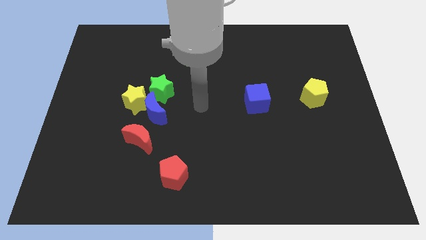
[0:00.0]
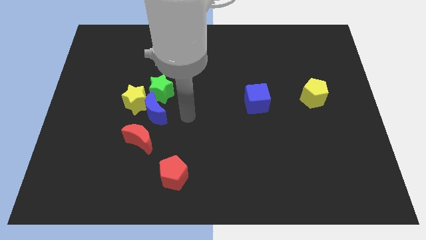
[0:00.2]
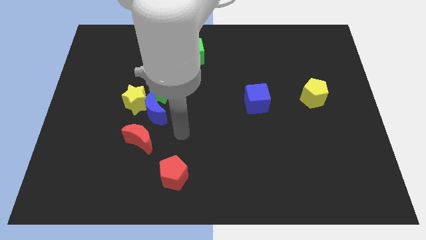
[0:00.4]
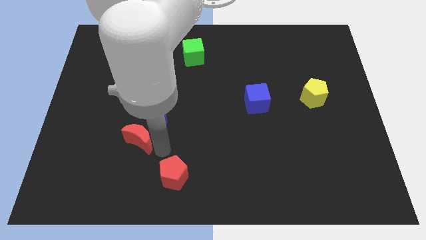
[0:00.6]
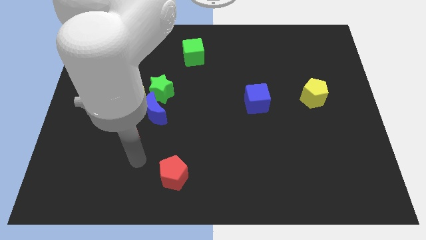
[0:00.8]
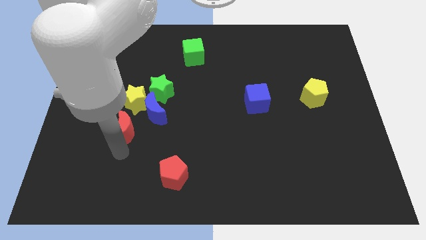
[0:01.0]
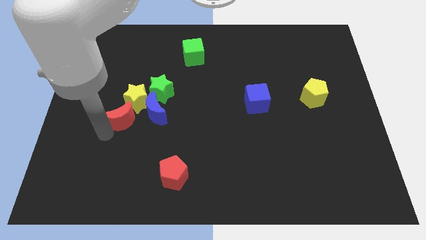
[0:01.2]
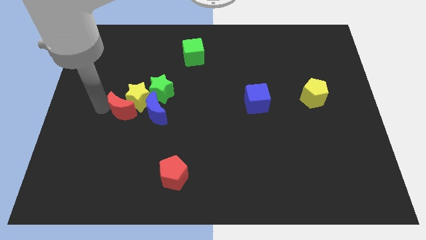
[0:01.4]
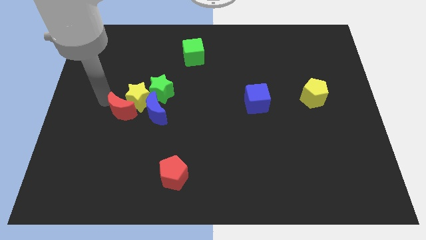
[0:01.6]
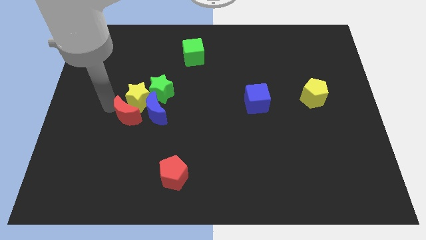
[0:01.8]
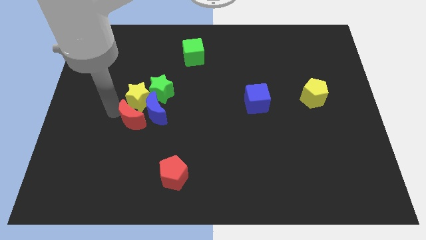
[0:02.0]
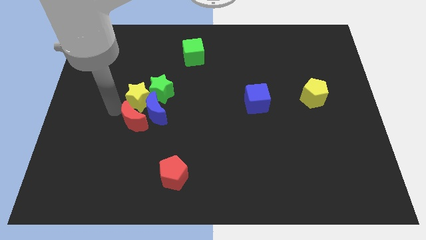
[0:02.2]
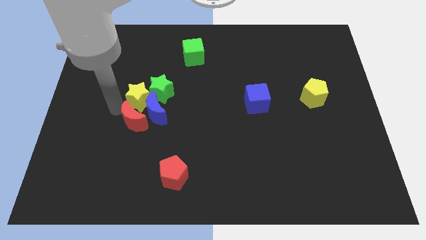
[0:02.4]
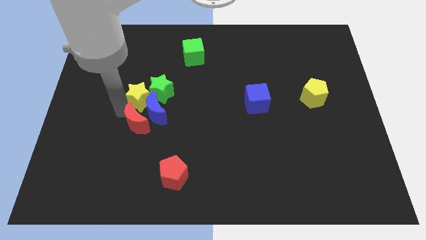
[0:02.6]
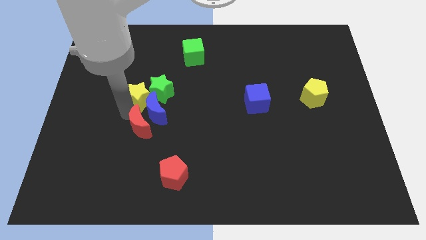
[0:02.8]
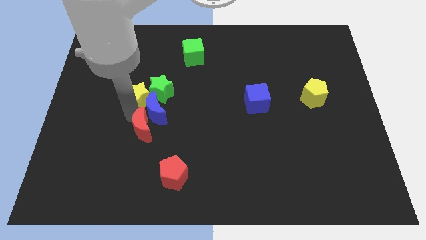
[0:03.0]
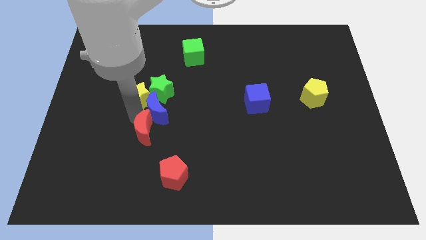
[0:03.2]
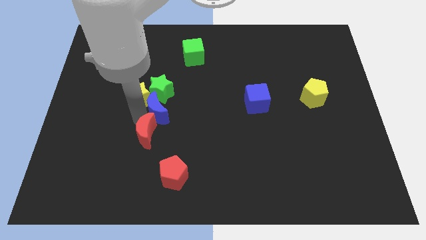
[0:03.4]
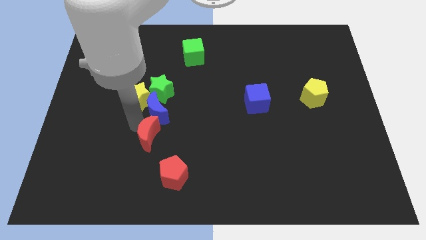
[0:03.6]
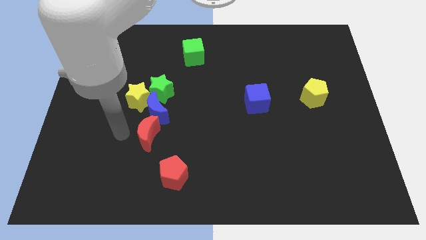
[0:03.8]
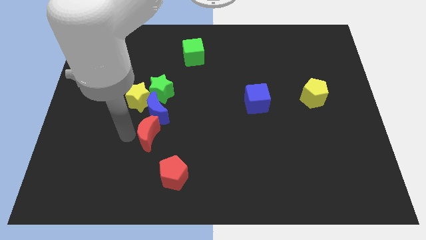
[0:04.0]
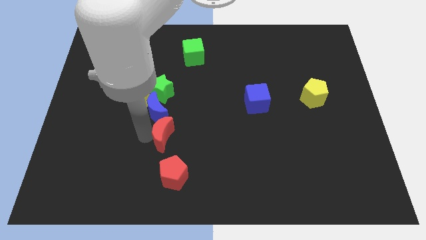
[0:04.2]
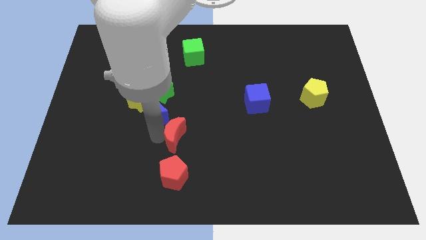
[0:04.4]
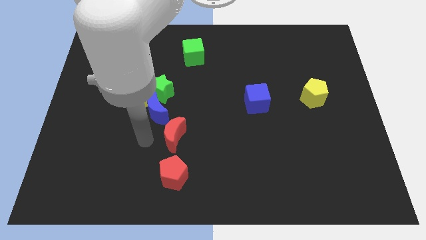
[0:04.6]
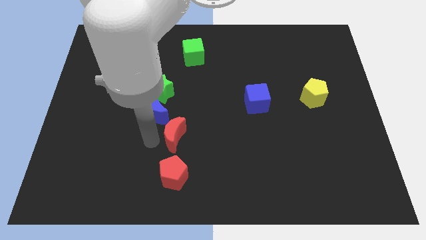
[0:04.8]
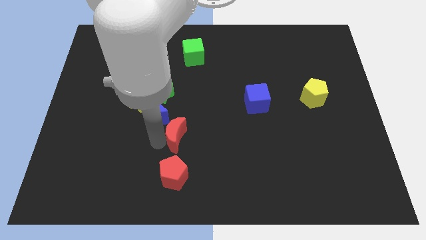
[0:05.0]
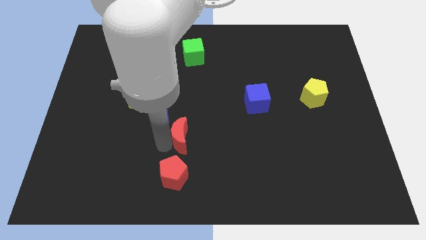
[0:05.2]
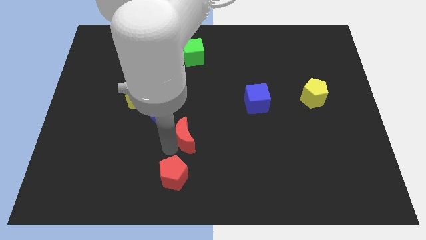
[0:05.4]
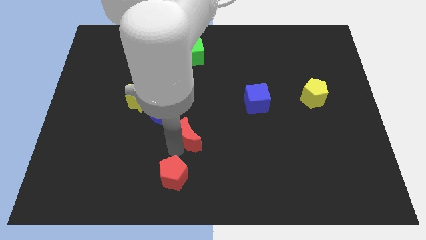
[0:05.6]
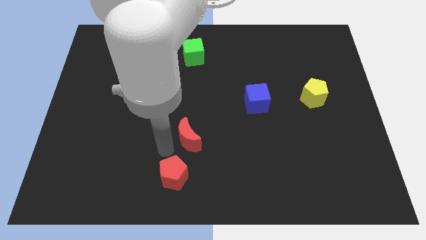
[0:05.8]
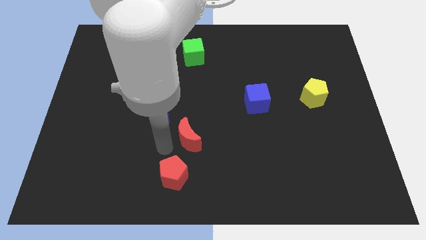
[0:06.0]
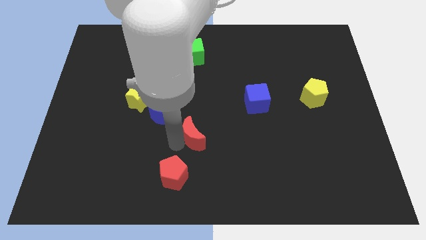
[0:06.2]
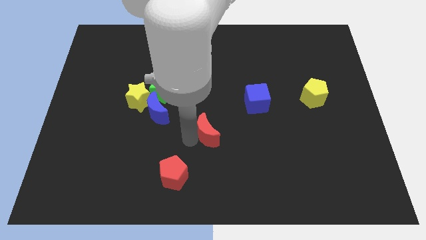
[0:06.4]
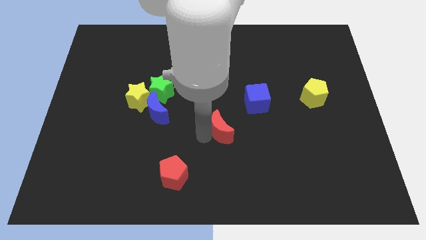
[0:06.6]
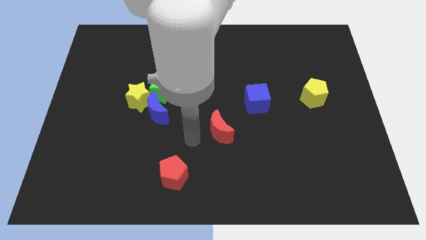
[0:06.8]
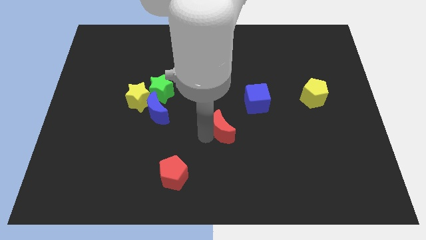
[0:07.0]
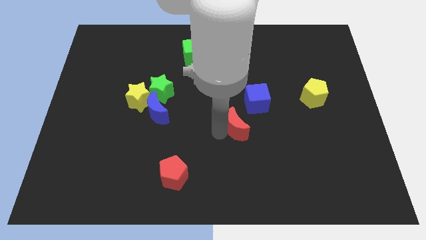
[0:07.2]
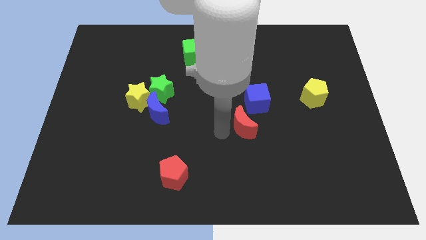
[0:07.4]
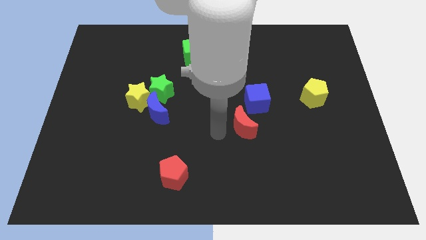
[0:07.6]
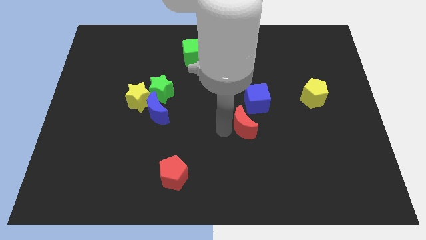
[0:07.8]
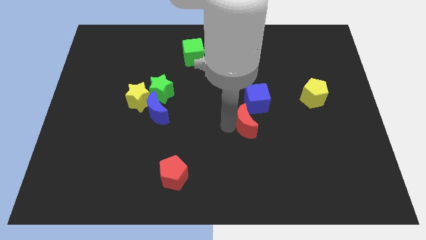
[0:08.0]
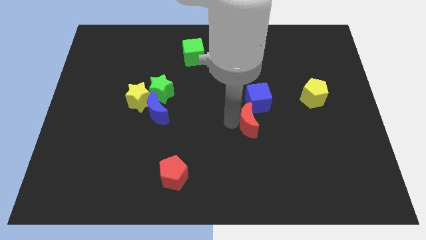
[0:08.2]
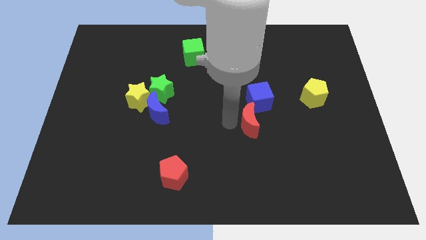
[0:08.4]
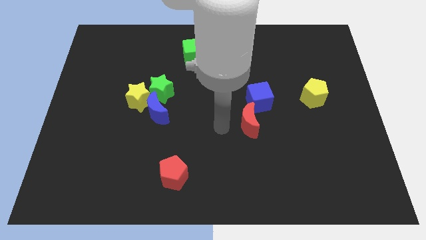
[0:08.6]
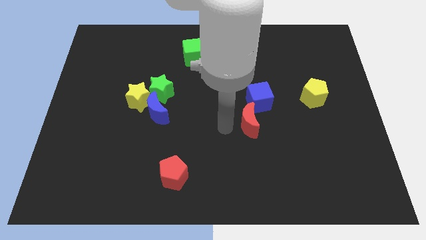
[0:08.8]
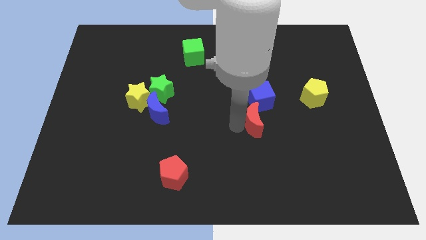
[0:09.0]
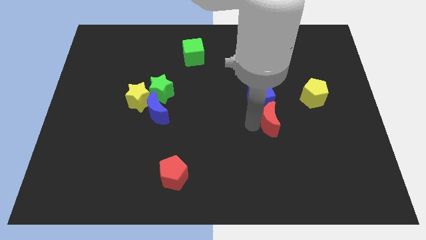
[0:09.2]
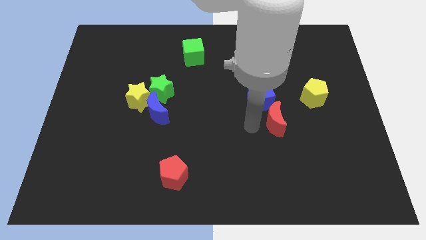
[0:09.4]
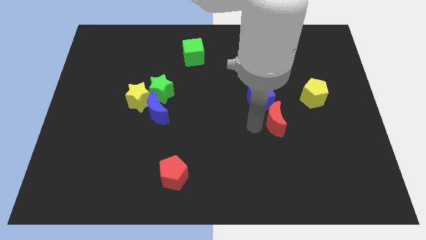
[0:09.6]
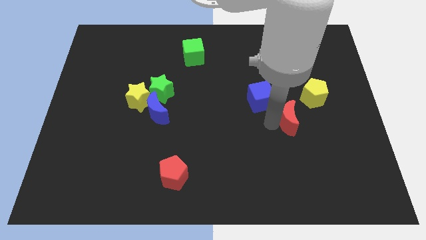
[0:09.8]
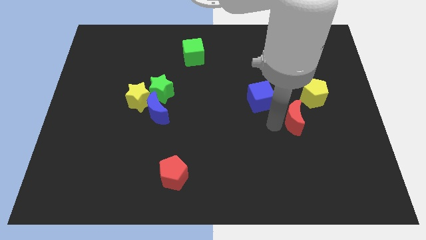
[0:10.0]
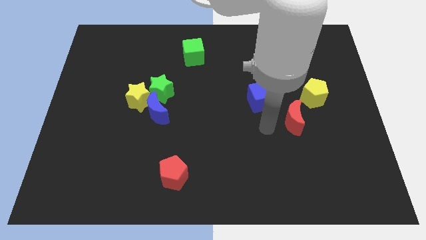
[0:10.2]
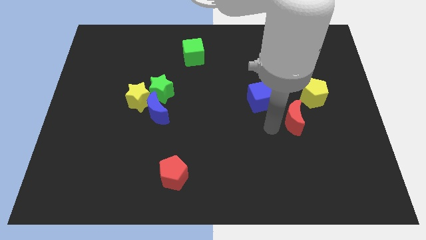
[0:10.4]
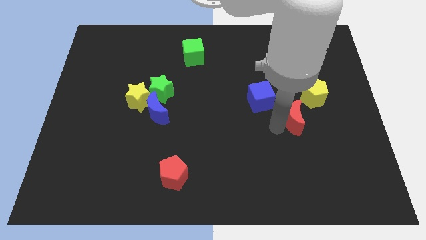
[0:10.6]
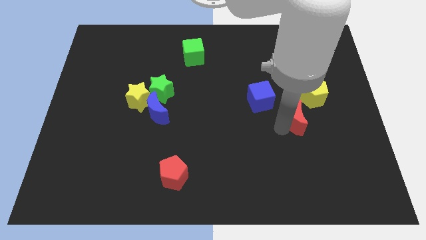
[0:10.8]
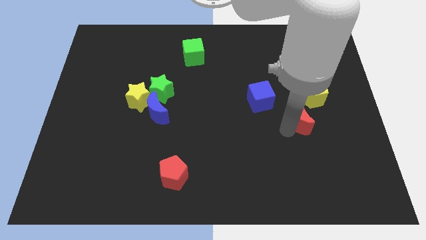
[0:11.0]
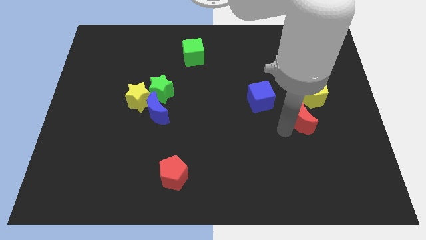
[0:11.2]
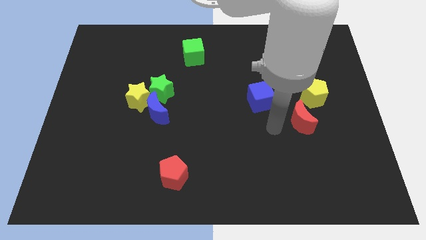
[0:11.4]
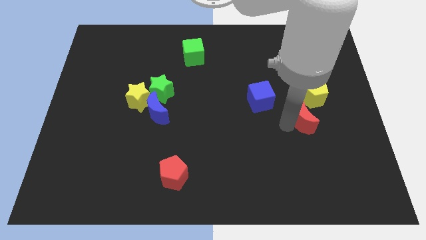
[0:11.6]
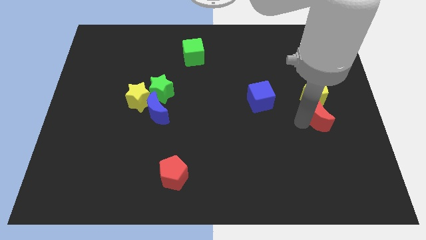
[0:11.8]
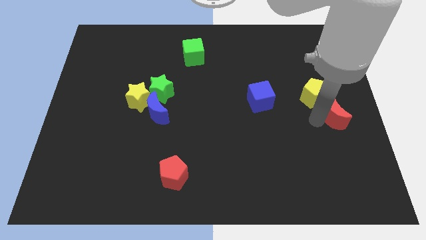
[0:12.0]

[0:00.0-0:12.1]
slide the red moon to the right side
